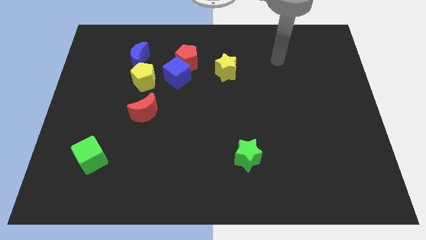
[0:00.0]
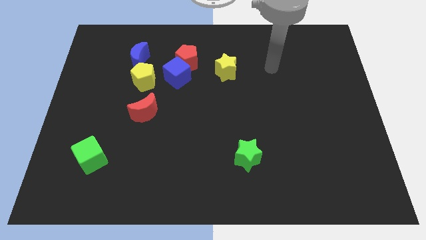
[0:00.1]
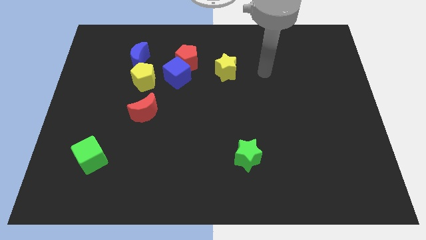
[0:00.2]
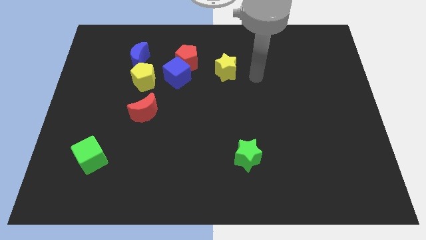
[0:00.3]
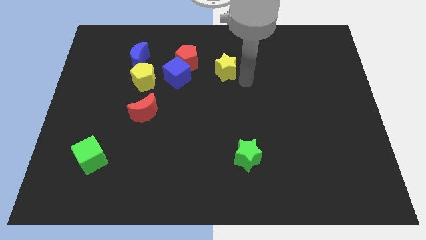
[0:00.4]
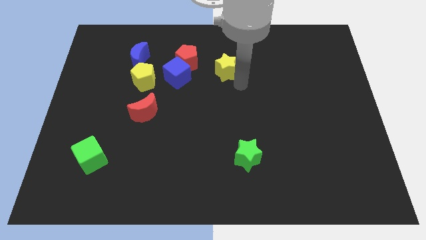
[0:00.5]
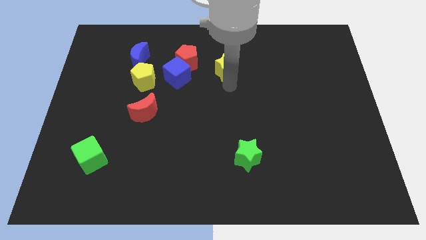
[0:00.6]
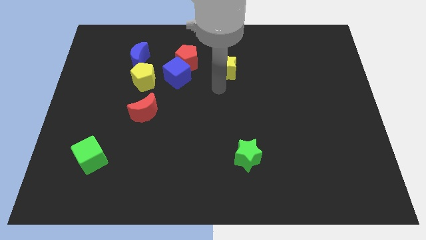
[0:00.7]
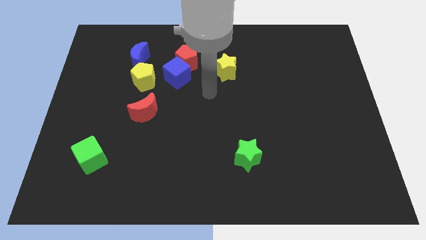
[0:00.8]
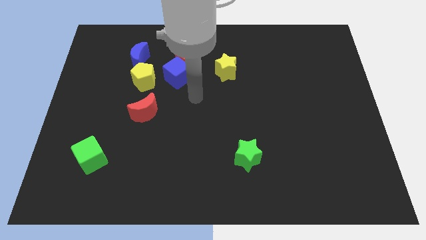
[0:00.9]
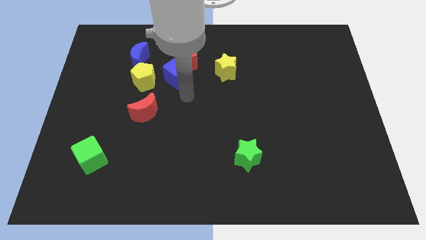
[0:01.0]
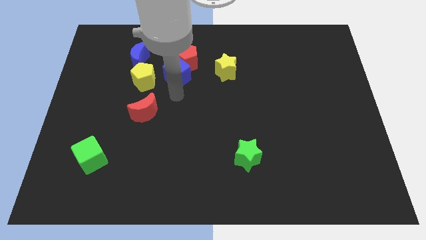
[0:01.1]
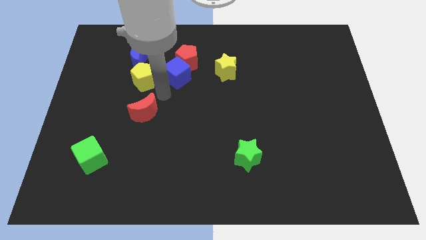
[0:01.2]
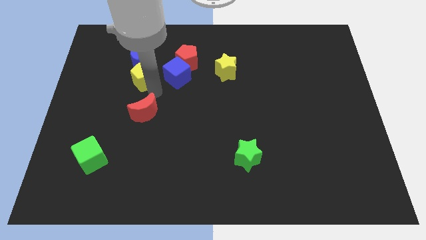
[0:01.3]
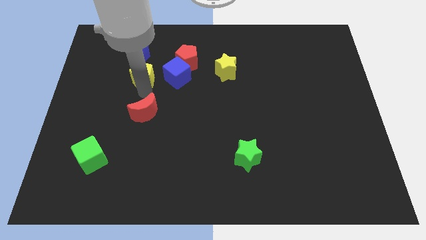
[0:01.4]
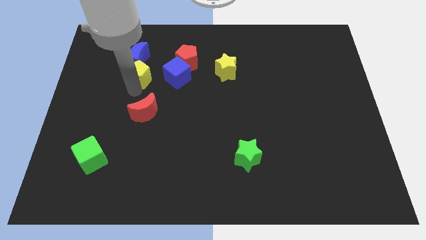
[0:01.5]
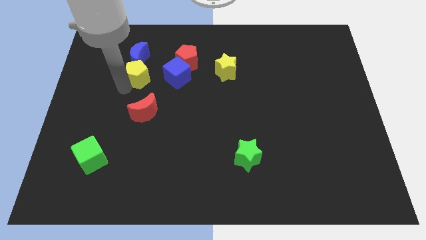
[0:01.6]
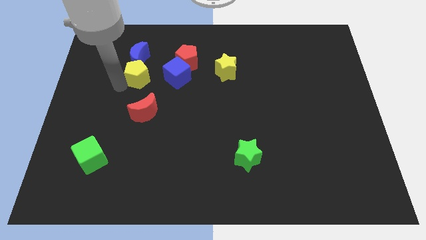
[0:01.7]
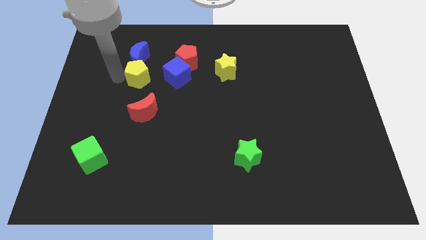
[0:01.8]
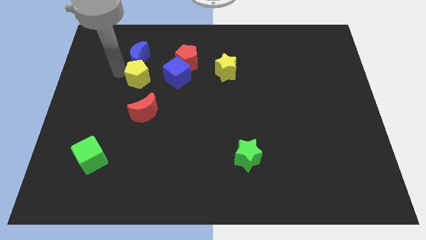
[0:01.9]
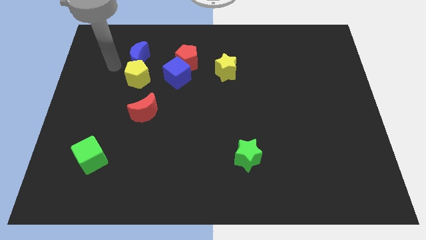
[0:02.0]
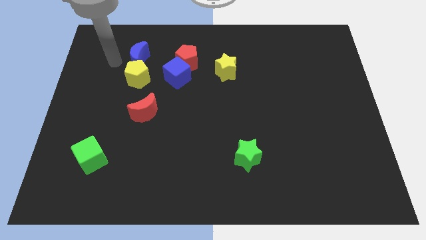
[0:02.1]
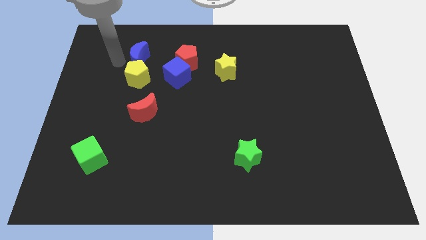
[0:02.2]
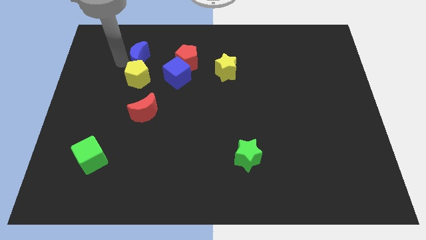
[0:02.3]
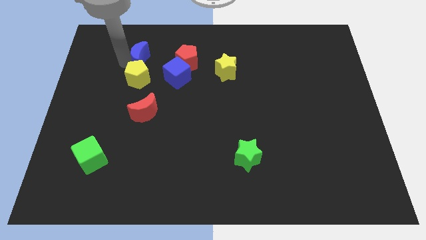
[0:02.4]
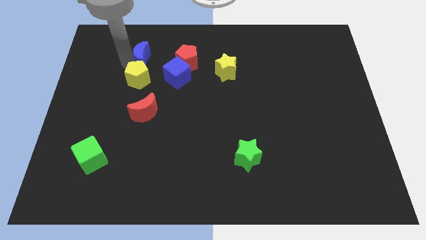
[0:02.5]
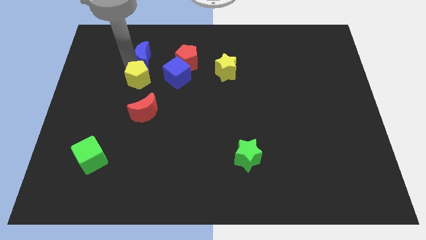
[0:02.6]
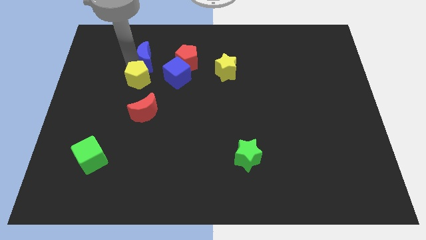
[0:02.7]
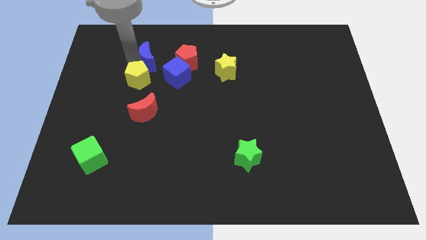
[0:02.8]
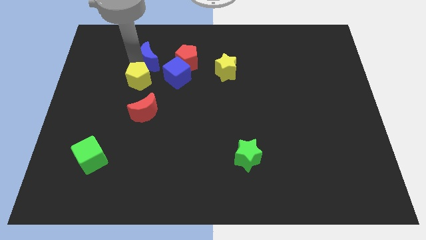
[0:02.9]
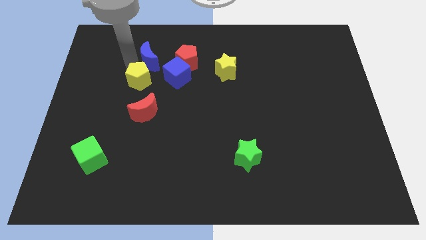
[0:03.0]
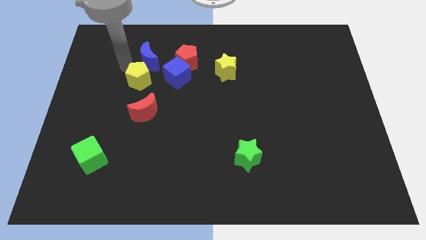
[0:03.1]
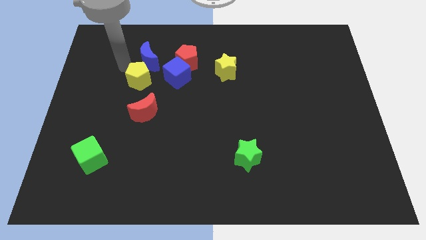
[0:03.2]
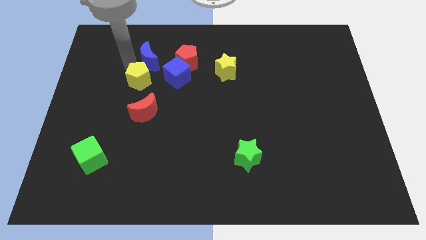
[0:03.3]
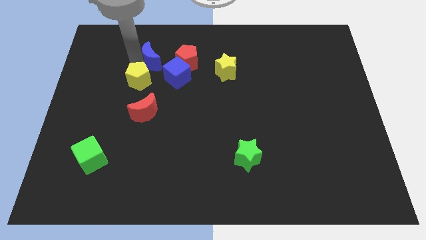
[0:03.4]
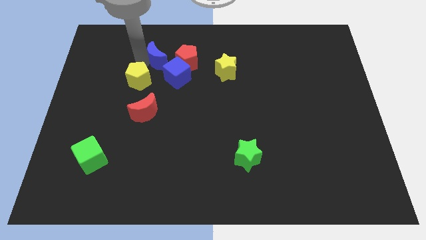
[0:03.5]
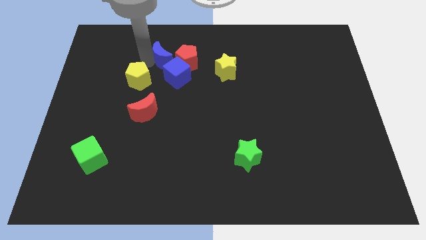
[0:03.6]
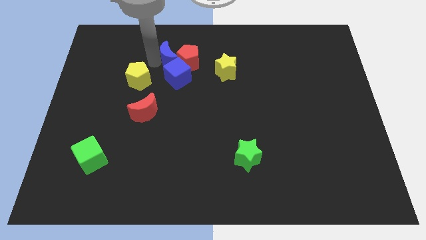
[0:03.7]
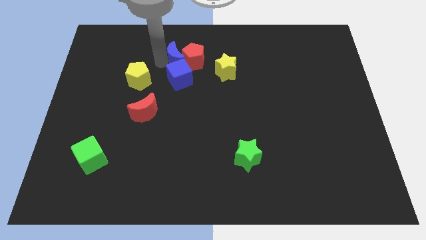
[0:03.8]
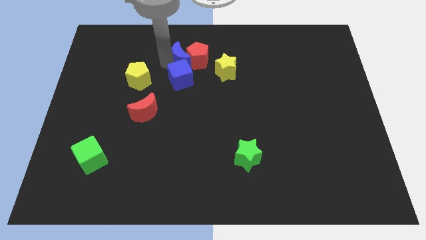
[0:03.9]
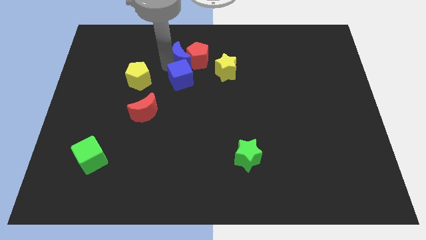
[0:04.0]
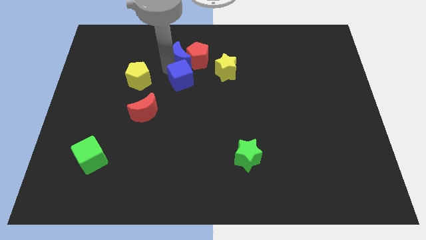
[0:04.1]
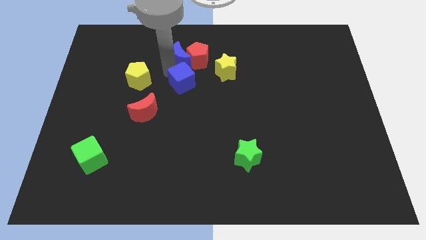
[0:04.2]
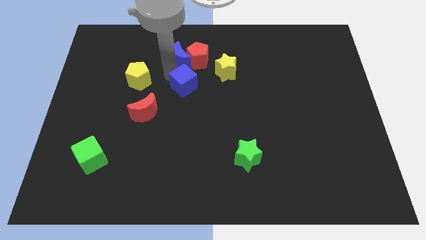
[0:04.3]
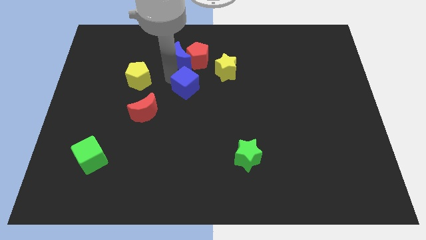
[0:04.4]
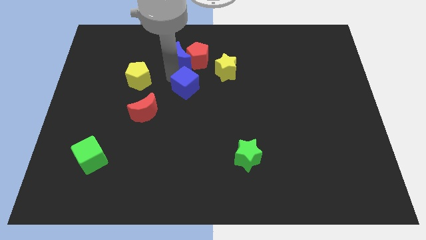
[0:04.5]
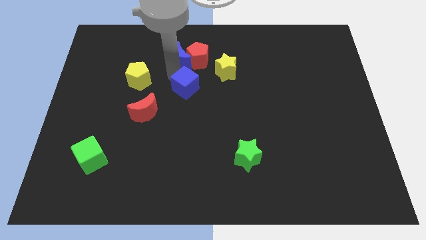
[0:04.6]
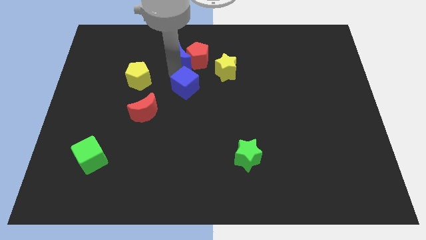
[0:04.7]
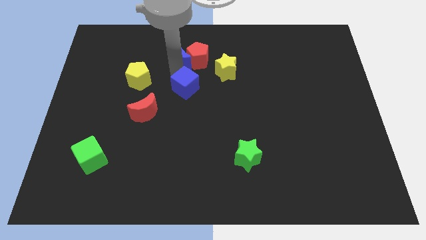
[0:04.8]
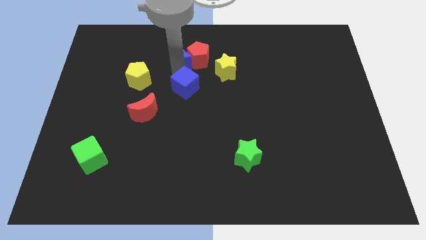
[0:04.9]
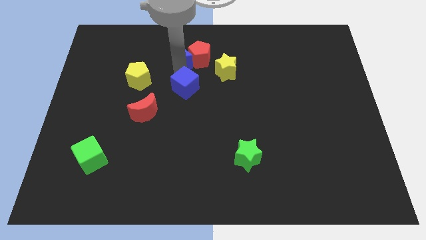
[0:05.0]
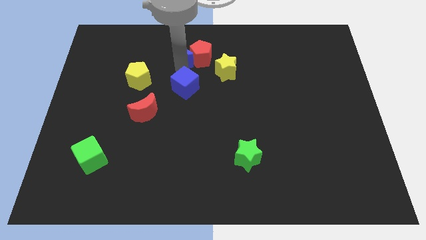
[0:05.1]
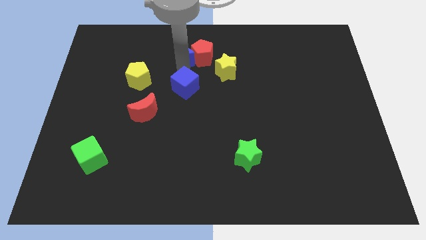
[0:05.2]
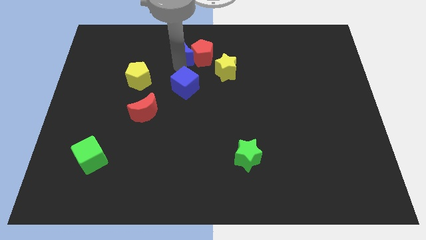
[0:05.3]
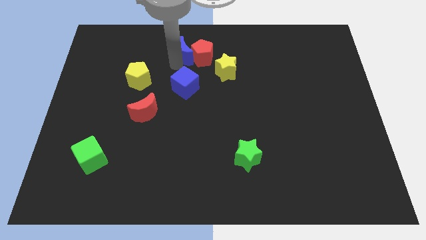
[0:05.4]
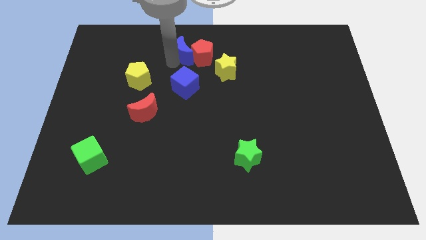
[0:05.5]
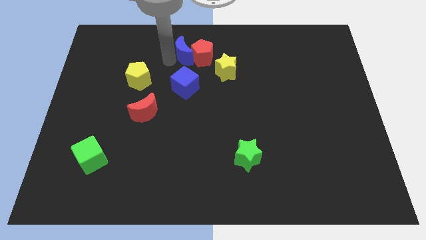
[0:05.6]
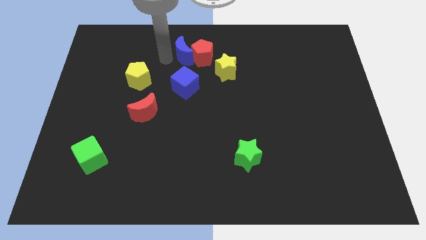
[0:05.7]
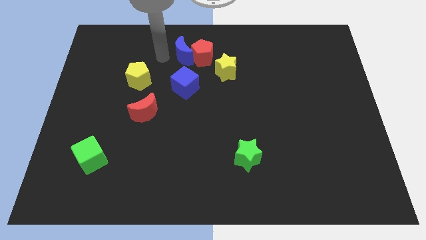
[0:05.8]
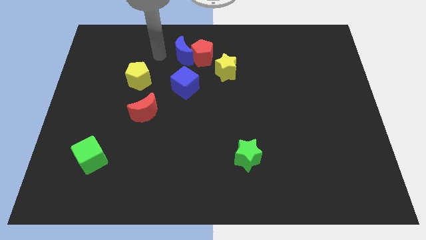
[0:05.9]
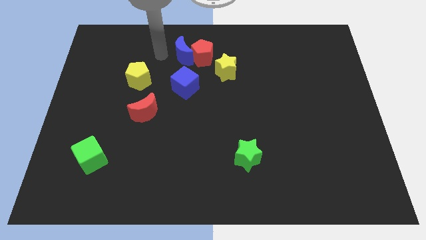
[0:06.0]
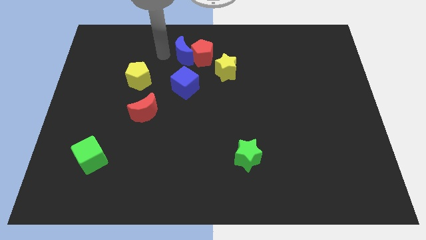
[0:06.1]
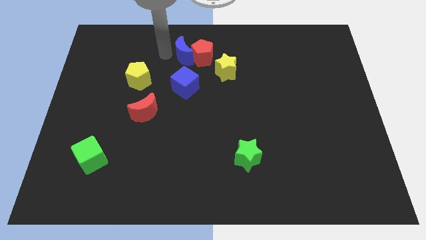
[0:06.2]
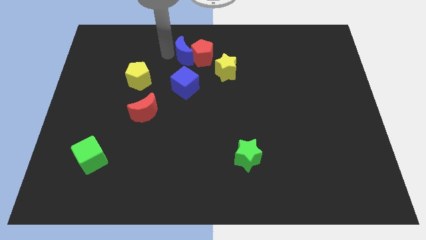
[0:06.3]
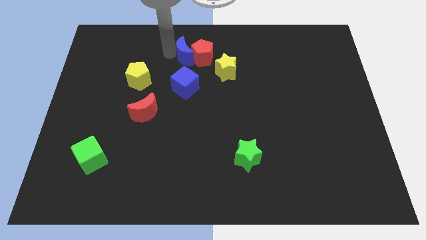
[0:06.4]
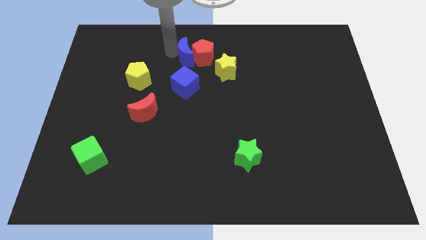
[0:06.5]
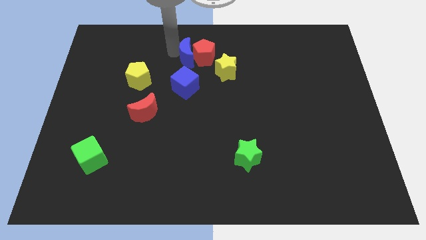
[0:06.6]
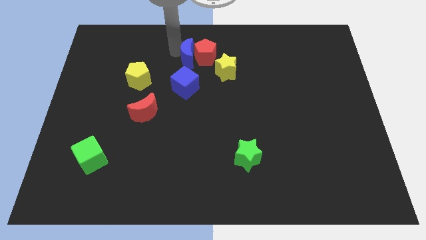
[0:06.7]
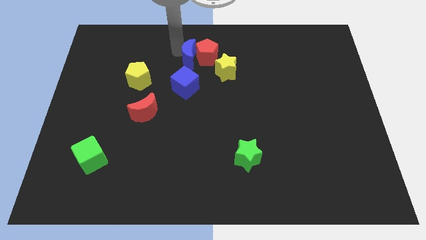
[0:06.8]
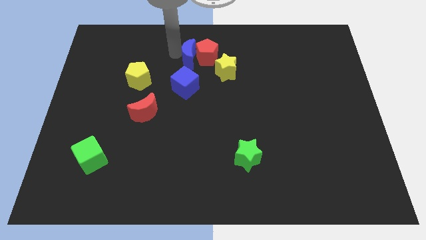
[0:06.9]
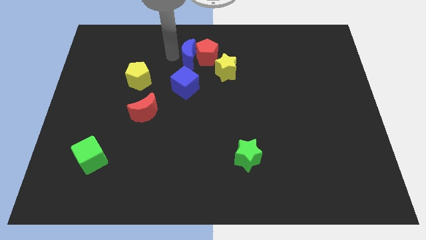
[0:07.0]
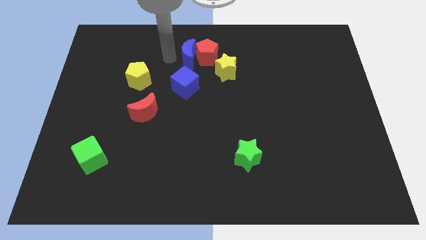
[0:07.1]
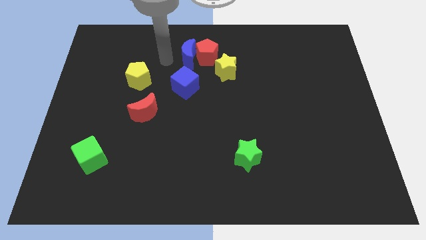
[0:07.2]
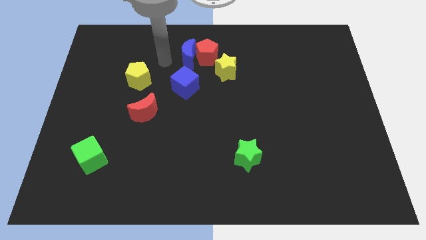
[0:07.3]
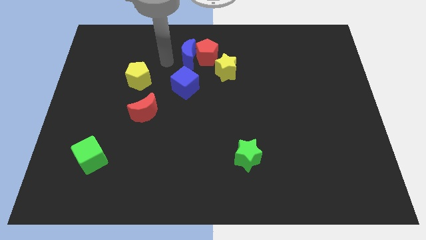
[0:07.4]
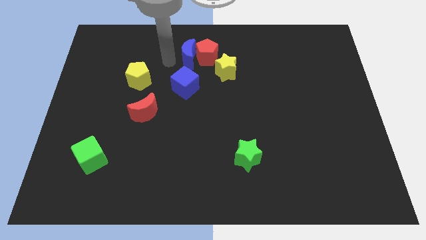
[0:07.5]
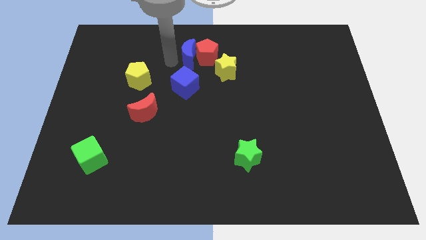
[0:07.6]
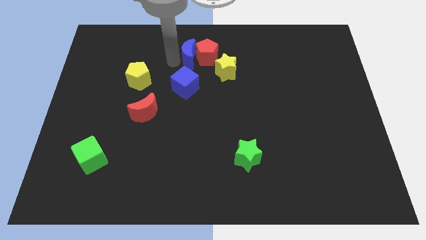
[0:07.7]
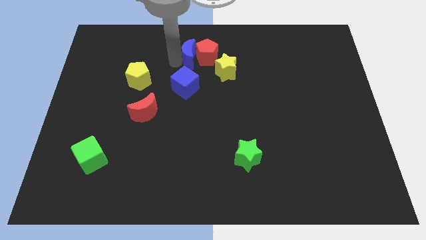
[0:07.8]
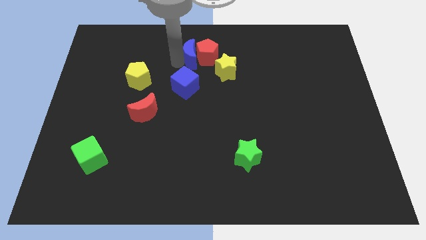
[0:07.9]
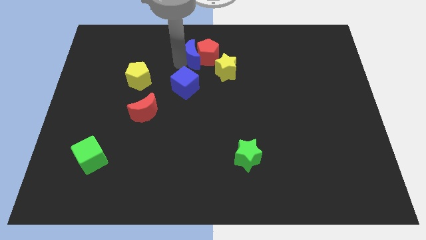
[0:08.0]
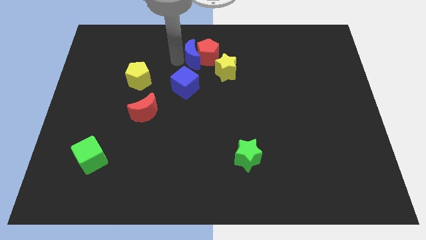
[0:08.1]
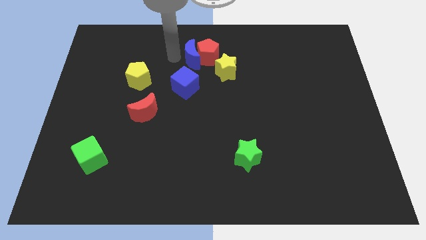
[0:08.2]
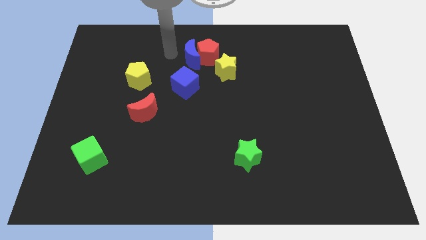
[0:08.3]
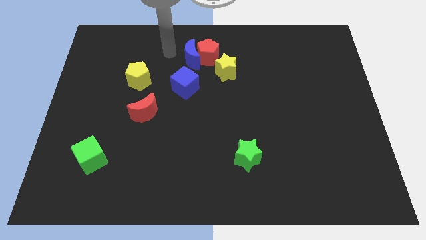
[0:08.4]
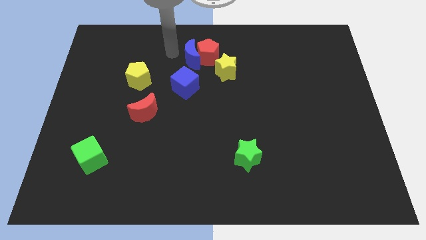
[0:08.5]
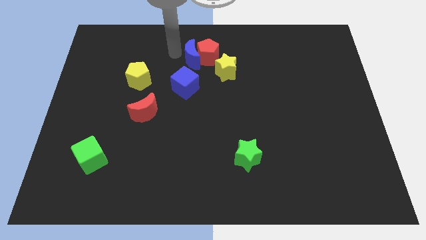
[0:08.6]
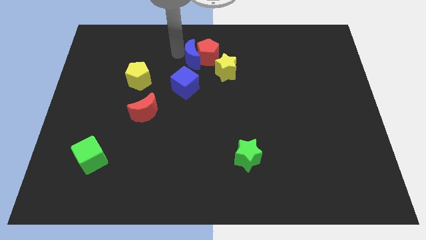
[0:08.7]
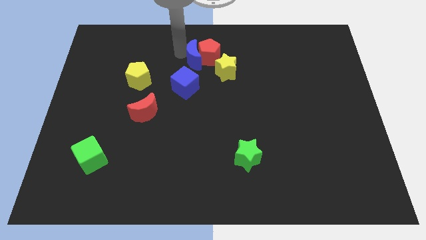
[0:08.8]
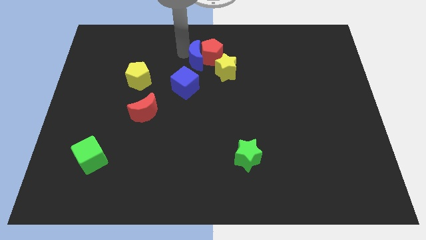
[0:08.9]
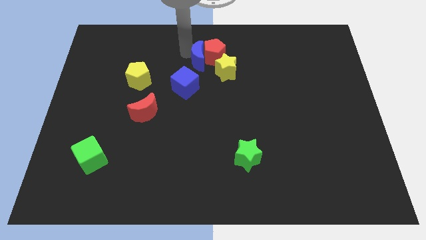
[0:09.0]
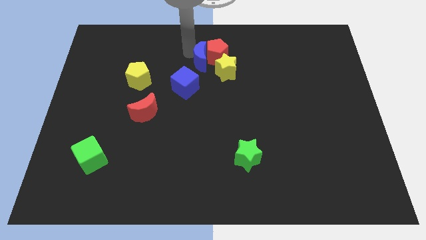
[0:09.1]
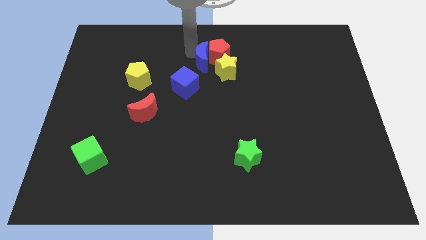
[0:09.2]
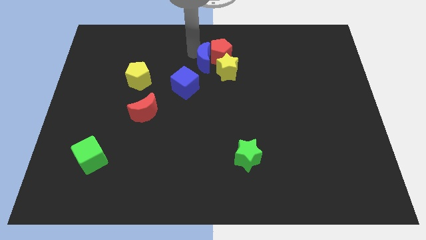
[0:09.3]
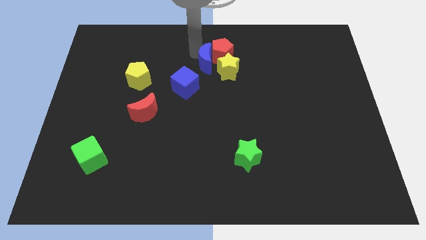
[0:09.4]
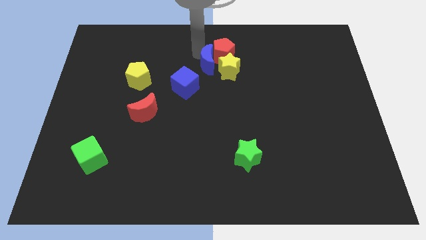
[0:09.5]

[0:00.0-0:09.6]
move the blue moon close to the yellow star
